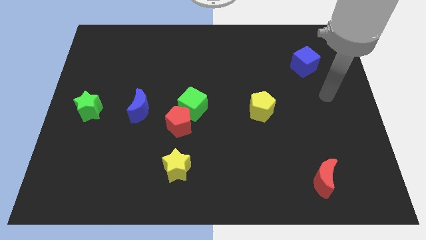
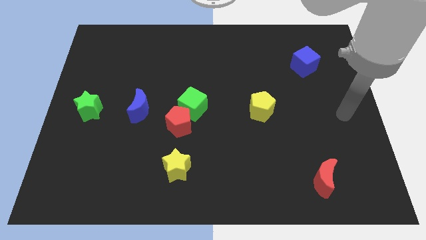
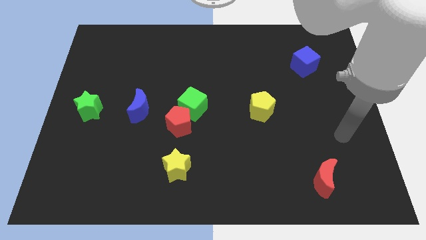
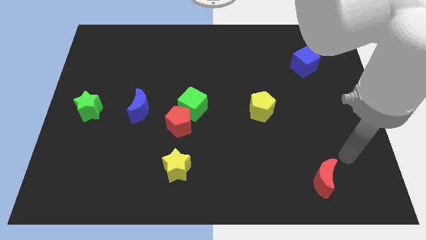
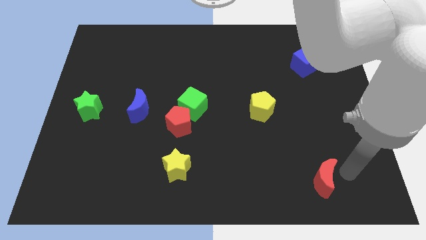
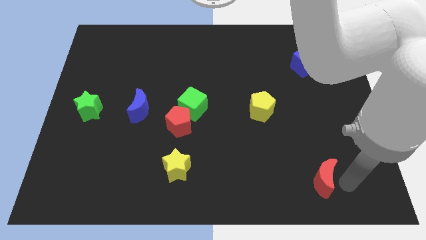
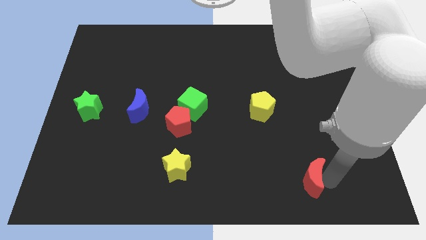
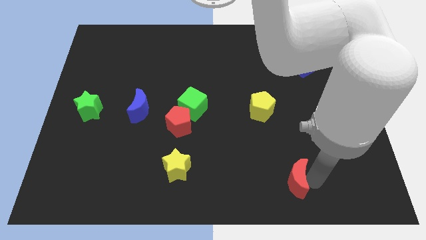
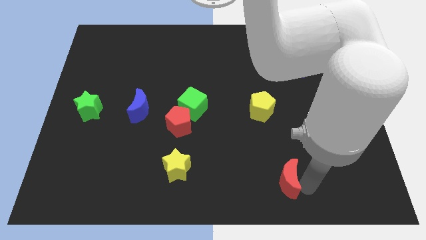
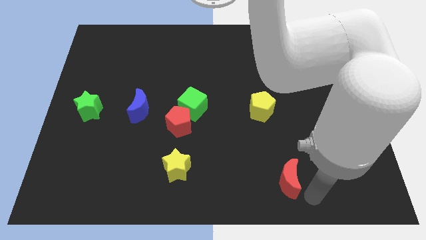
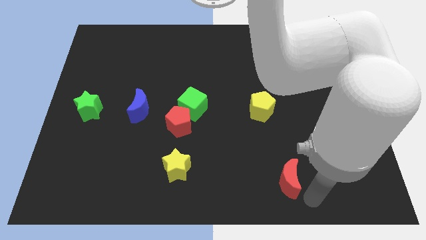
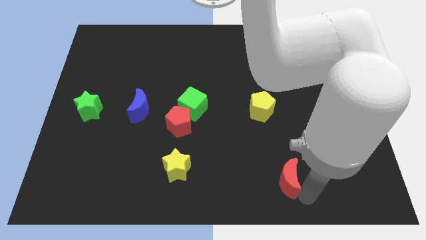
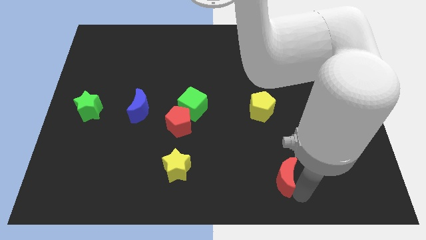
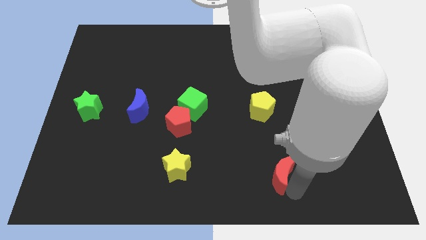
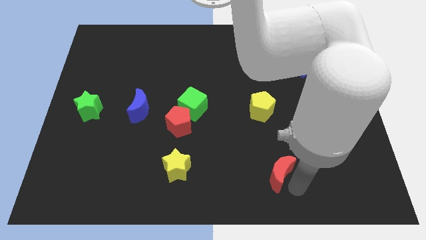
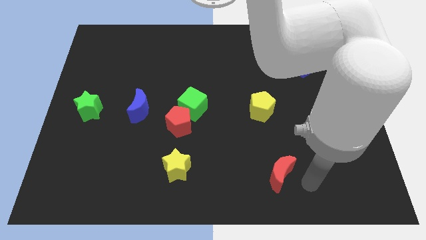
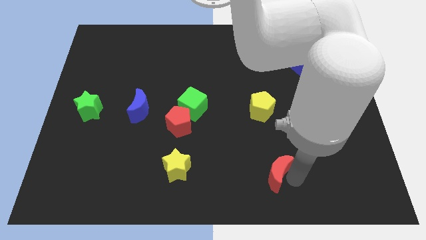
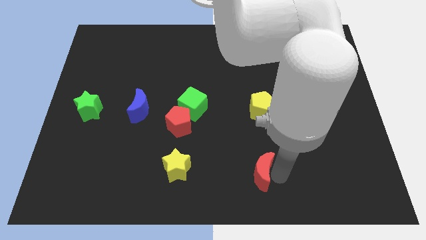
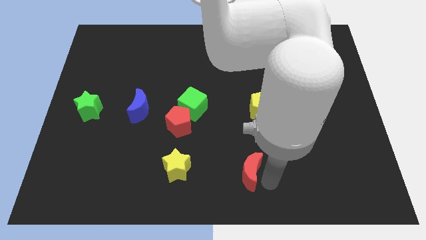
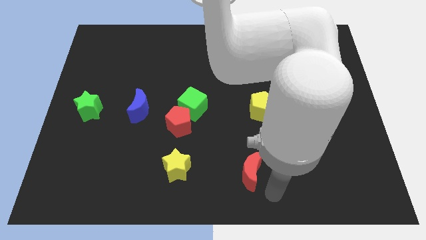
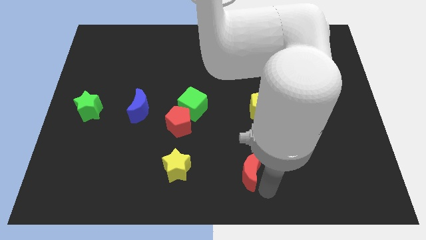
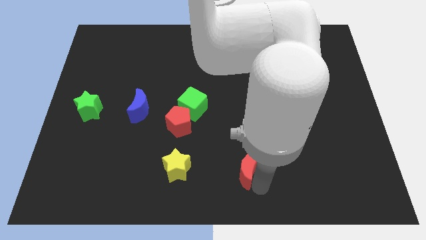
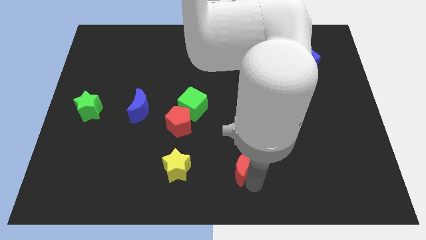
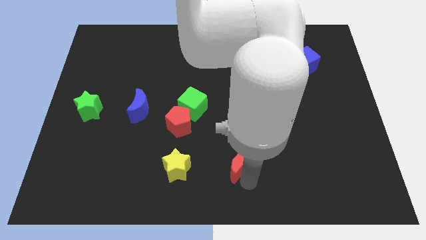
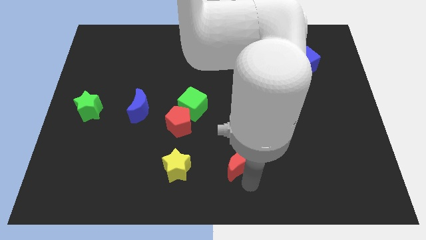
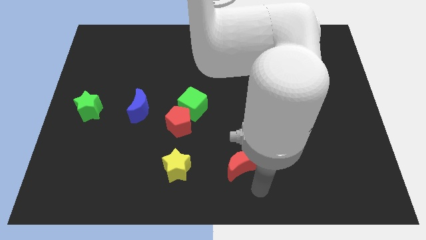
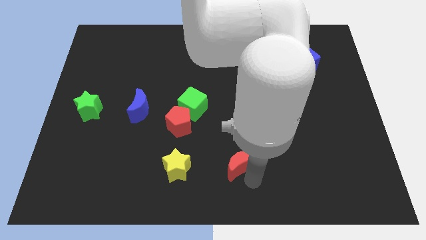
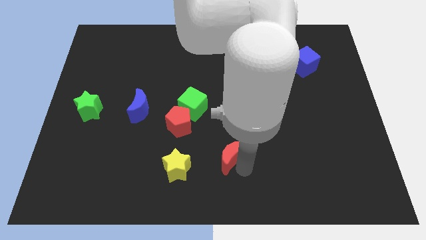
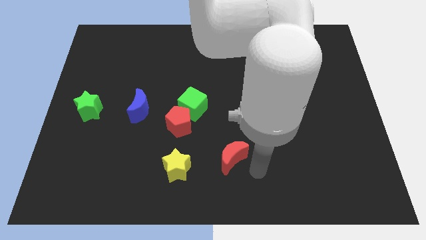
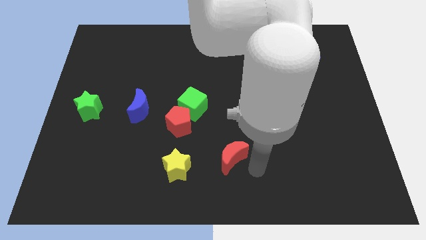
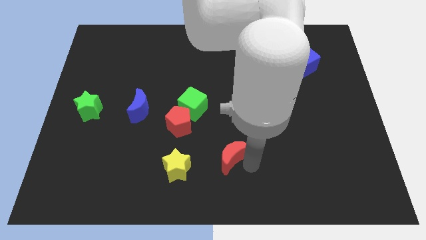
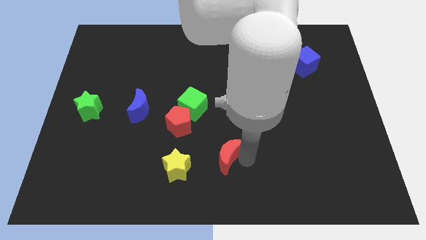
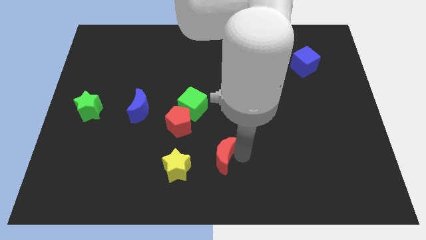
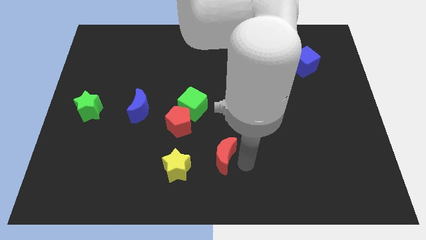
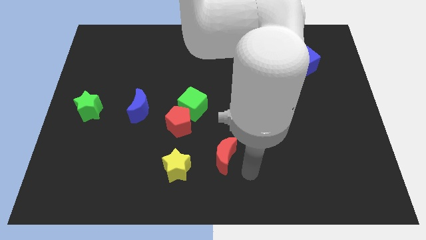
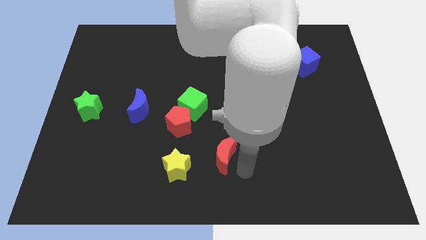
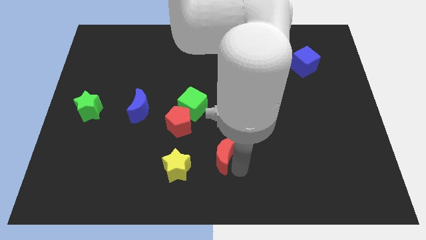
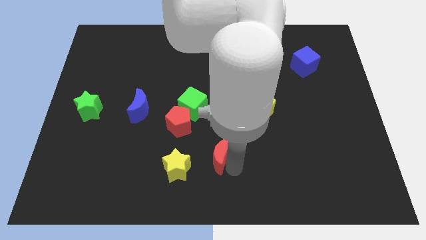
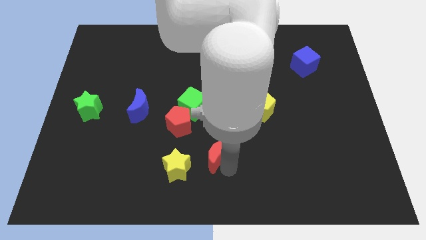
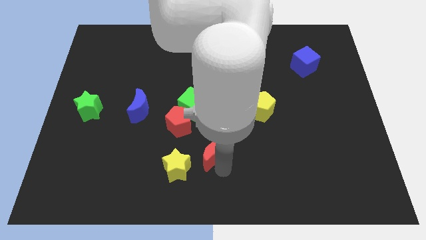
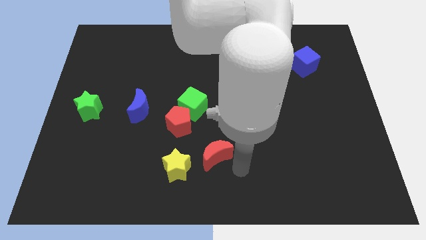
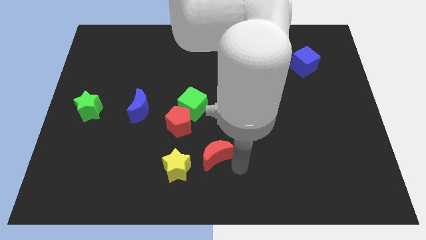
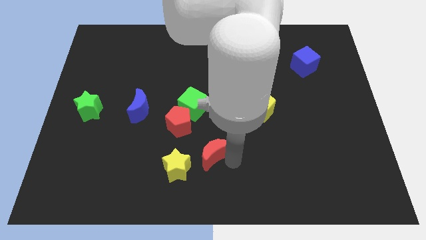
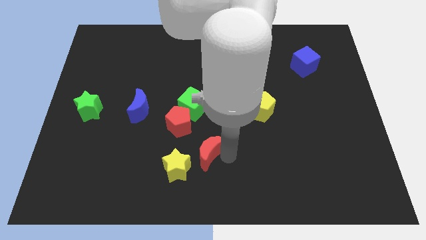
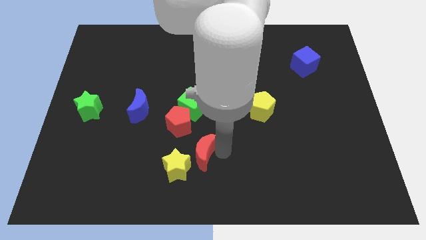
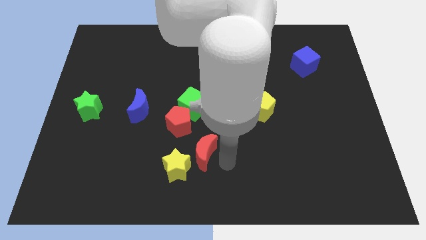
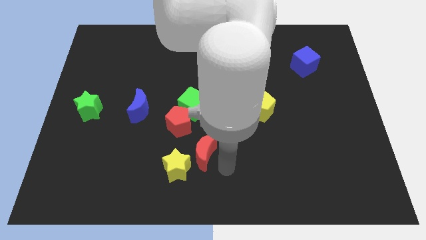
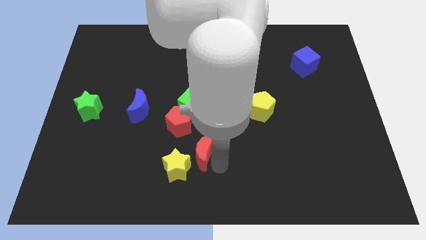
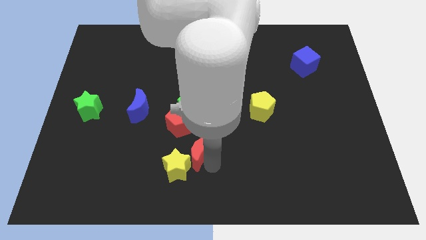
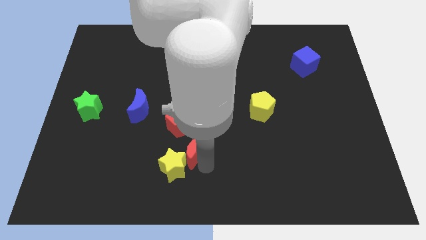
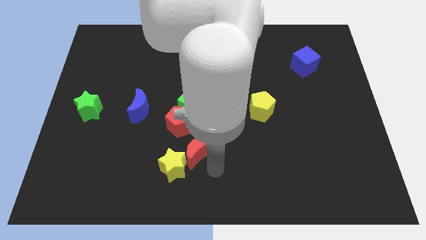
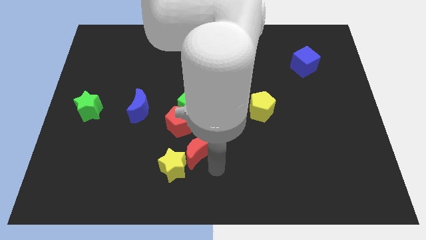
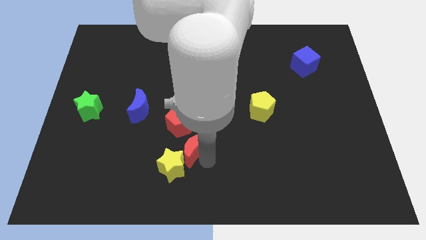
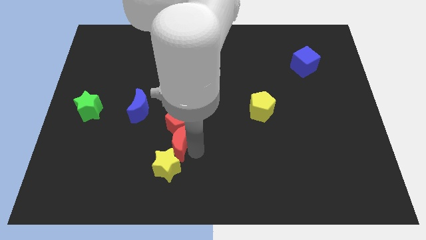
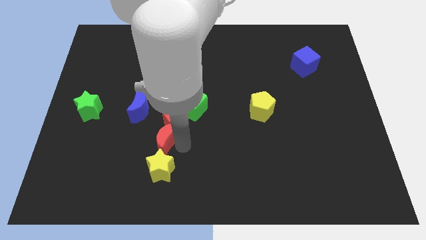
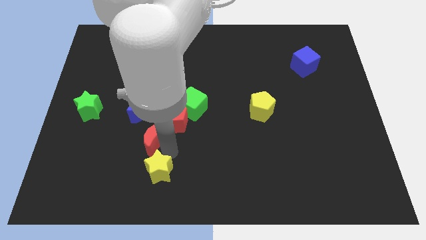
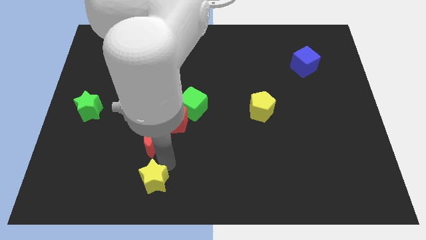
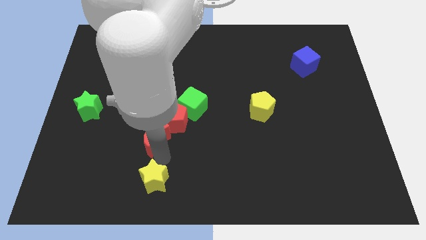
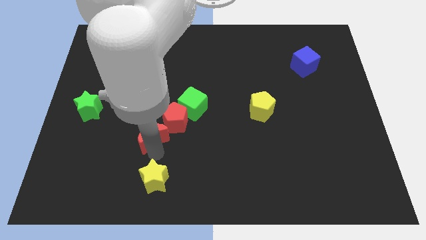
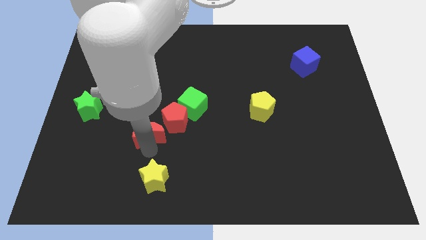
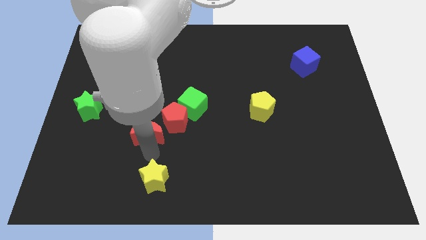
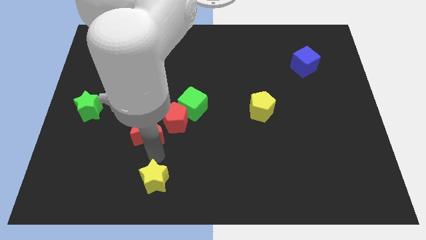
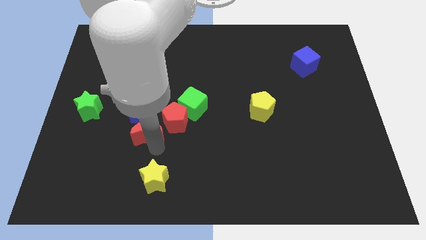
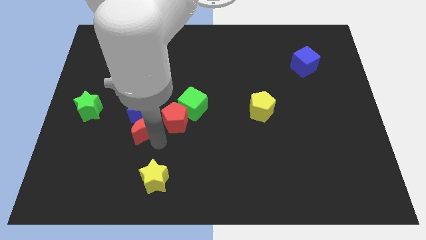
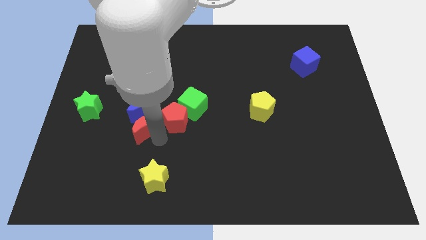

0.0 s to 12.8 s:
push the red moon to the blue moon

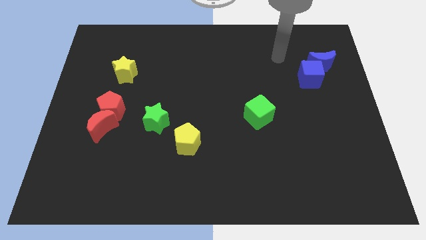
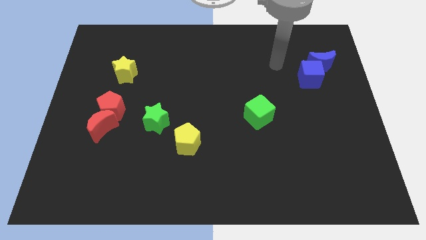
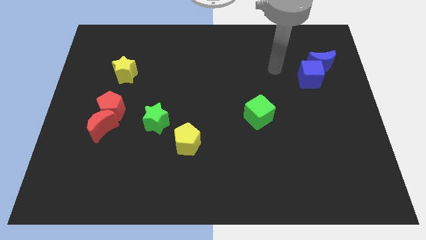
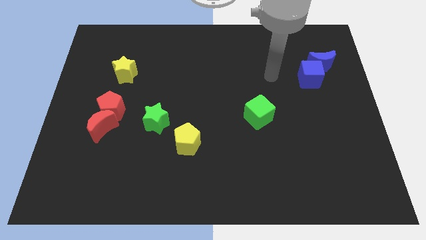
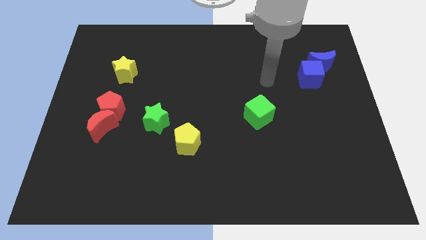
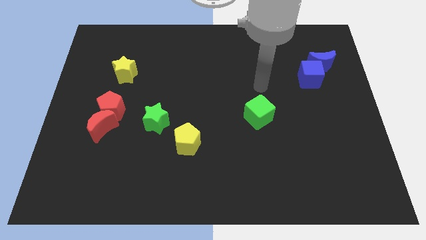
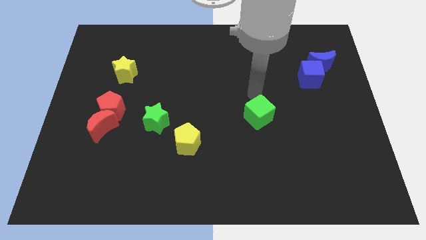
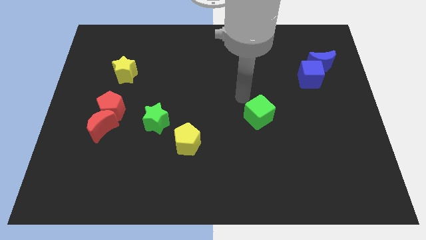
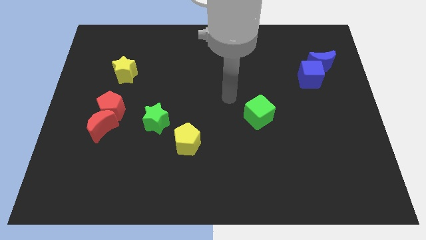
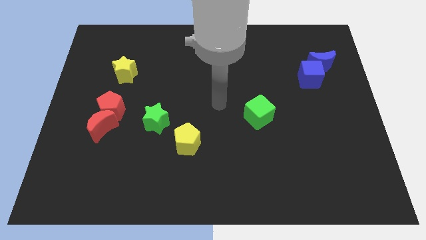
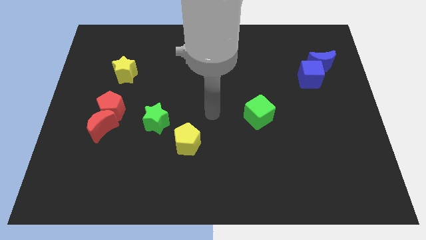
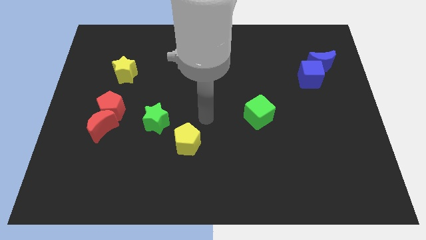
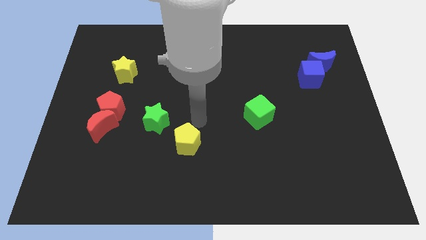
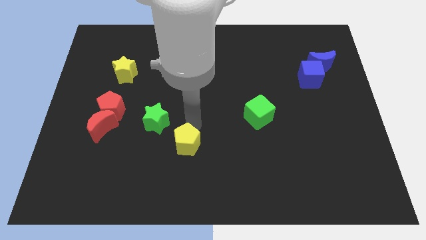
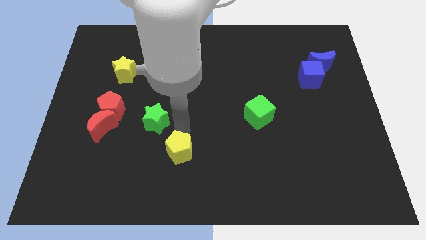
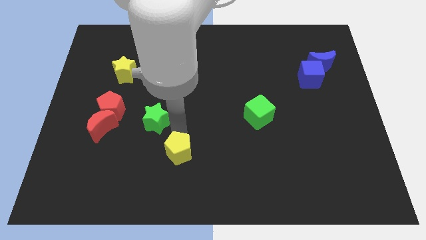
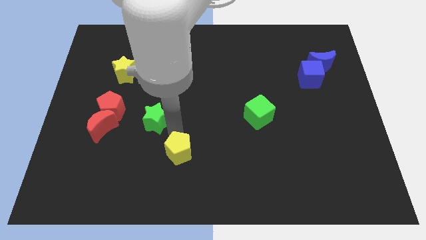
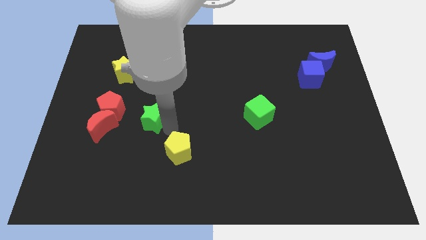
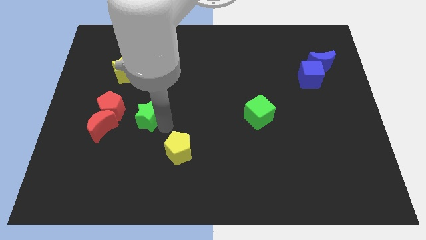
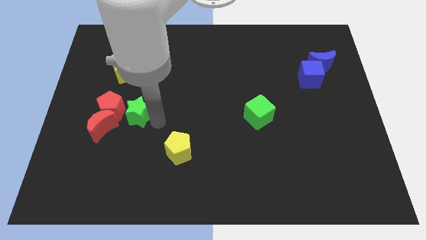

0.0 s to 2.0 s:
push the green star to the red pentagon
